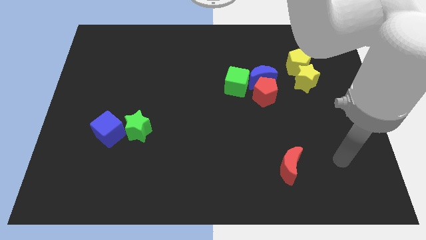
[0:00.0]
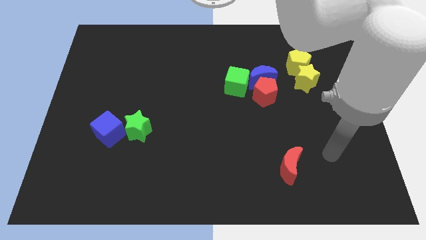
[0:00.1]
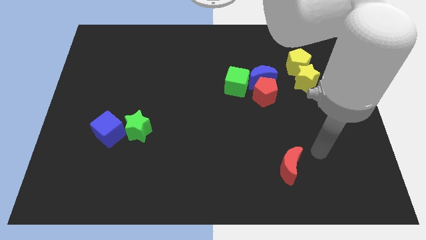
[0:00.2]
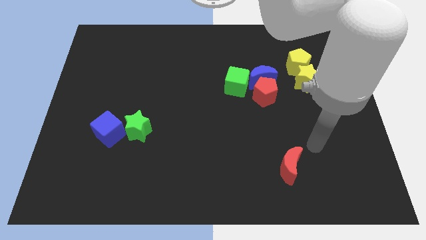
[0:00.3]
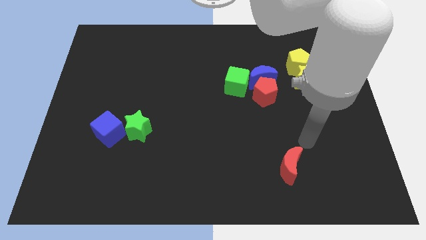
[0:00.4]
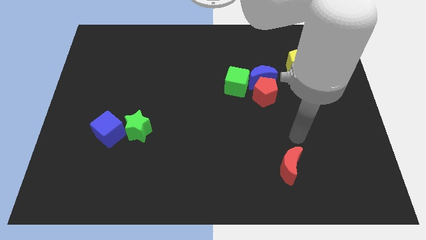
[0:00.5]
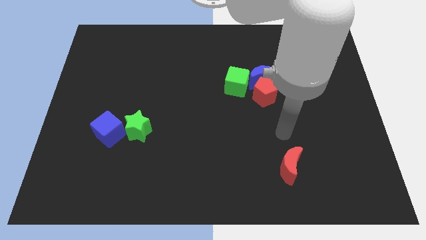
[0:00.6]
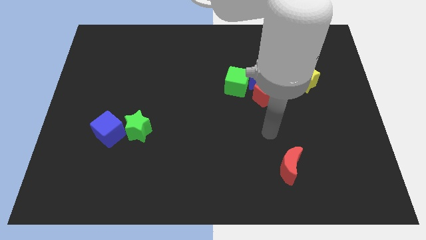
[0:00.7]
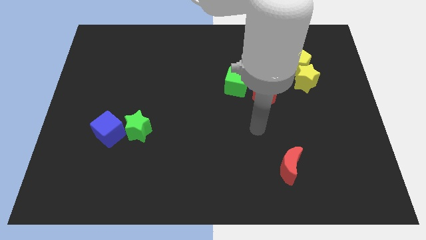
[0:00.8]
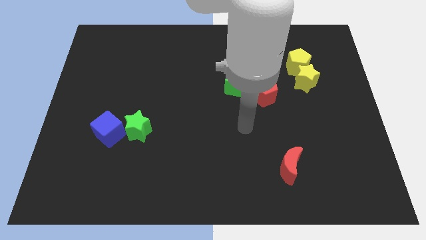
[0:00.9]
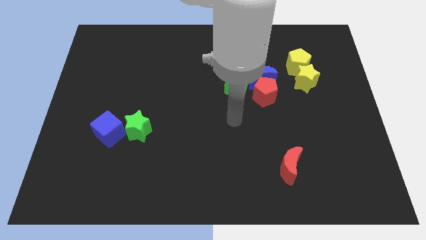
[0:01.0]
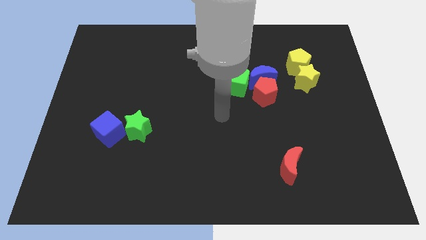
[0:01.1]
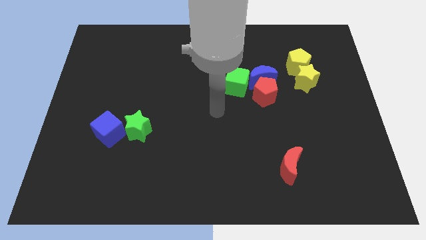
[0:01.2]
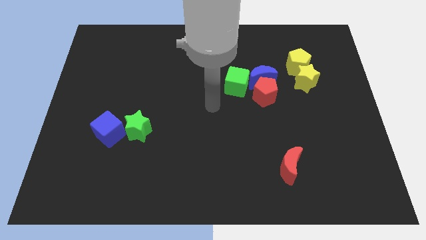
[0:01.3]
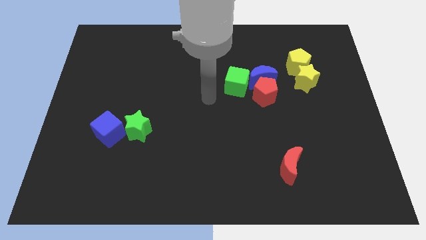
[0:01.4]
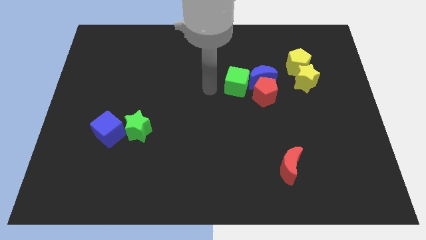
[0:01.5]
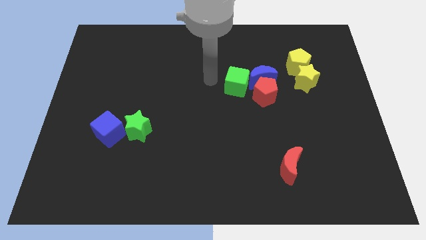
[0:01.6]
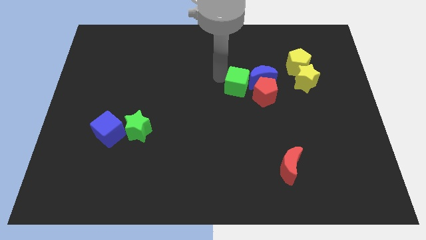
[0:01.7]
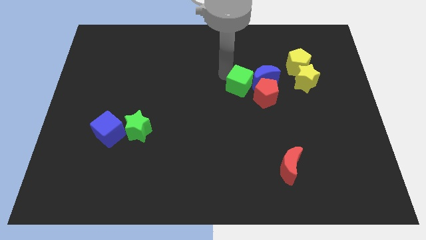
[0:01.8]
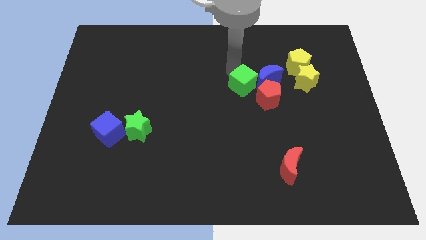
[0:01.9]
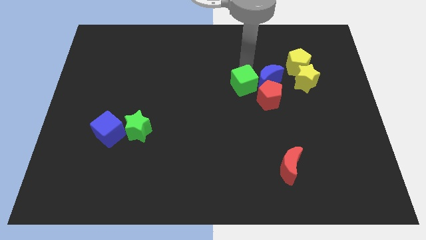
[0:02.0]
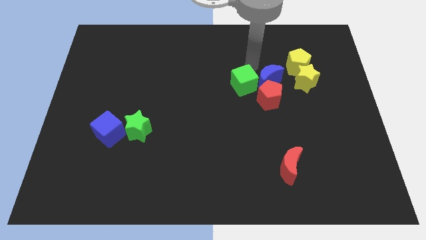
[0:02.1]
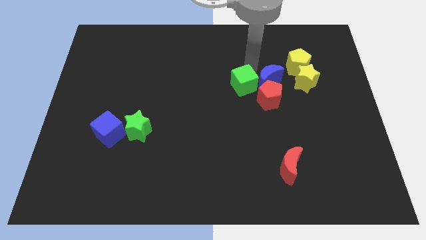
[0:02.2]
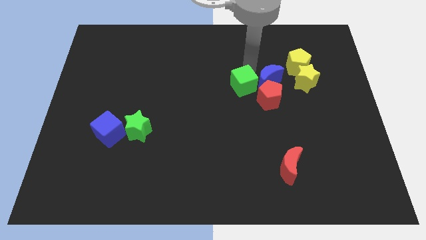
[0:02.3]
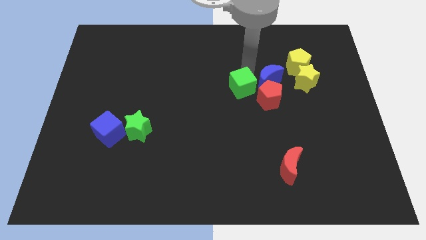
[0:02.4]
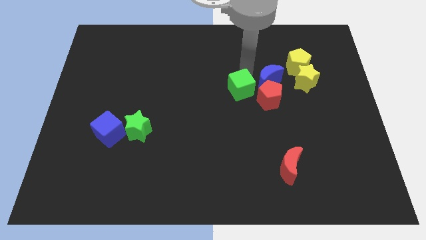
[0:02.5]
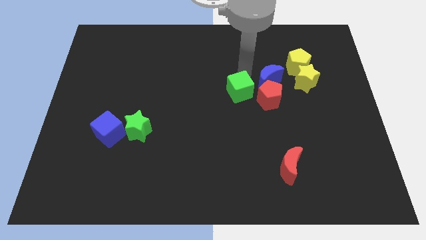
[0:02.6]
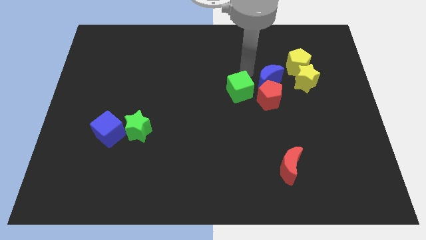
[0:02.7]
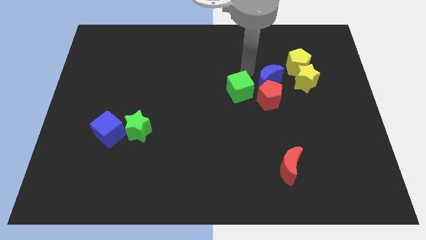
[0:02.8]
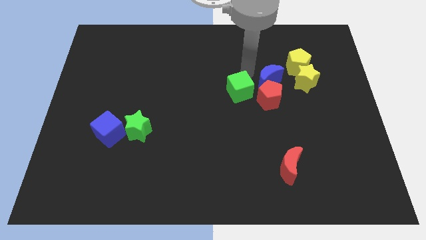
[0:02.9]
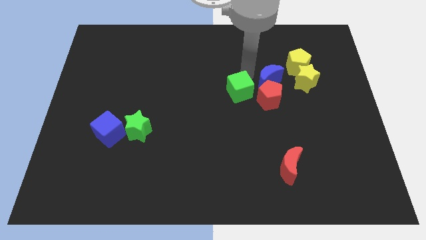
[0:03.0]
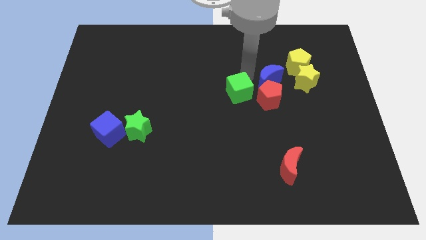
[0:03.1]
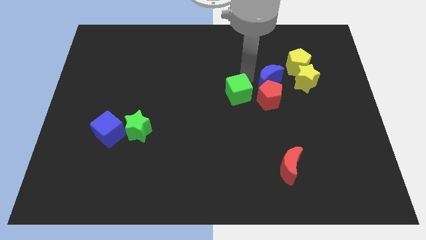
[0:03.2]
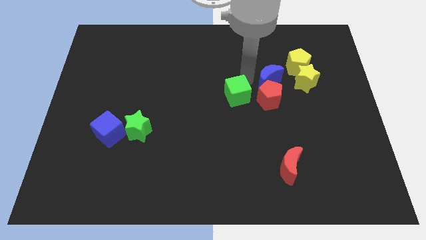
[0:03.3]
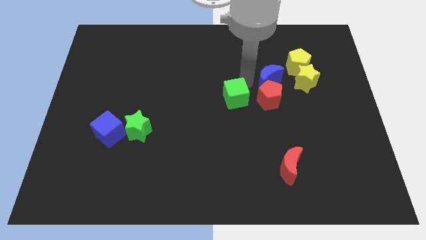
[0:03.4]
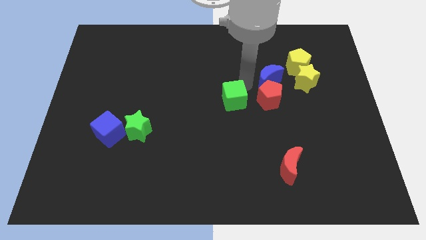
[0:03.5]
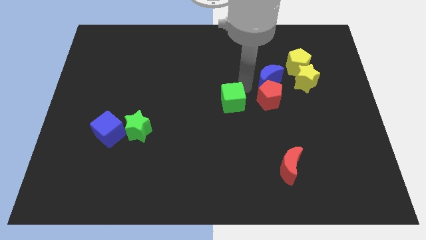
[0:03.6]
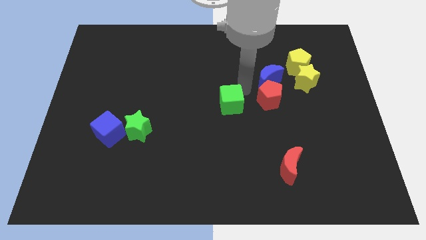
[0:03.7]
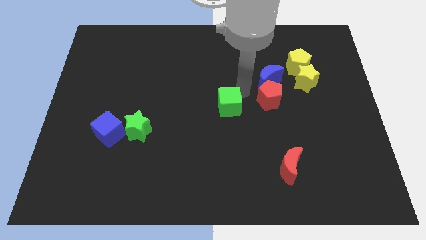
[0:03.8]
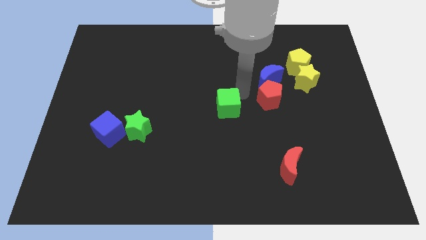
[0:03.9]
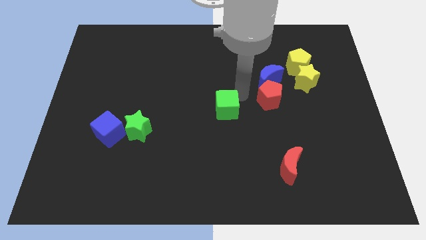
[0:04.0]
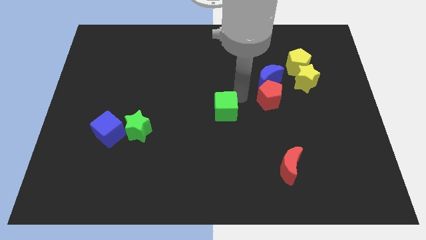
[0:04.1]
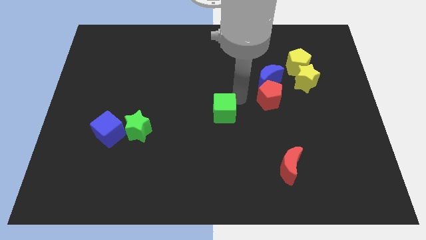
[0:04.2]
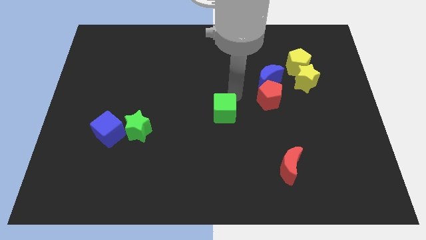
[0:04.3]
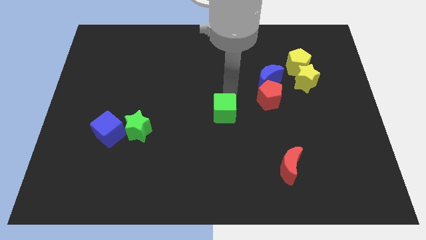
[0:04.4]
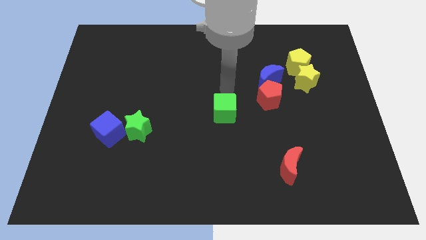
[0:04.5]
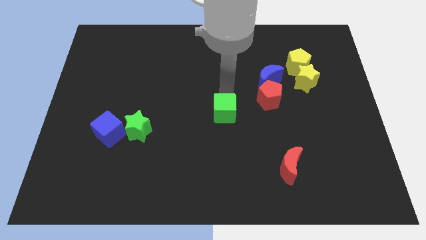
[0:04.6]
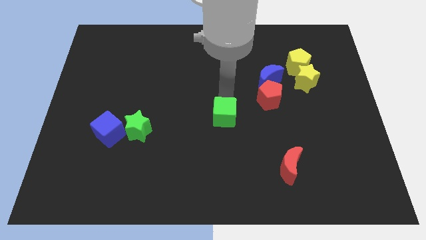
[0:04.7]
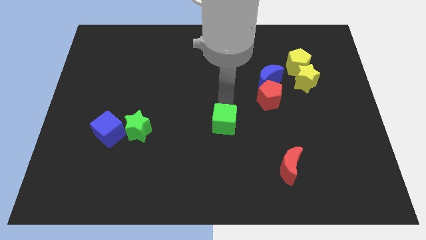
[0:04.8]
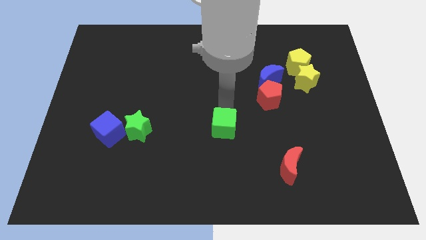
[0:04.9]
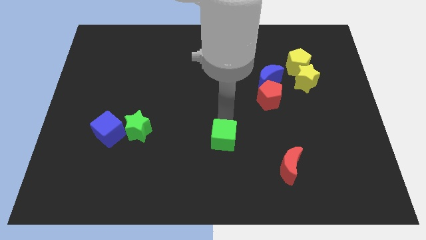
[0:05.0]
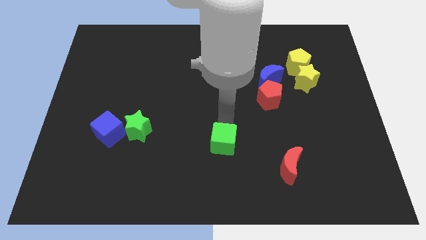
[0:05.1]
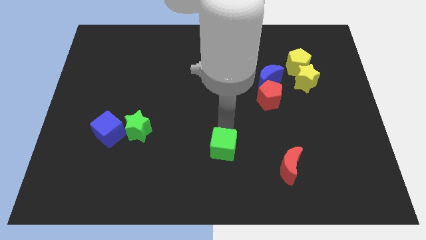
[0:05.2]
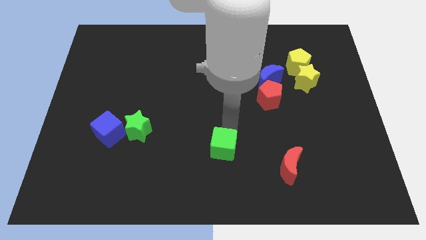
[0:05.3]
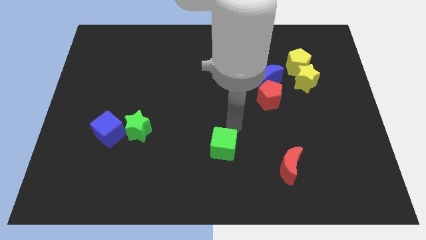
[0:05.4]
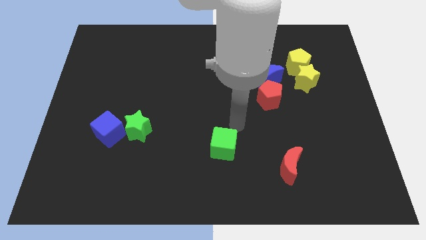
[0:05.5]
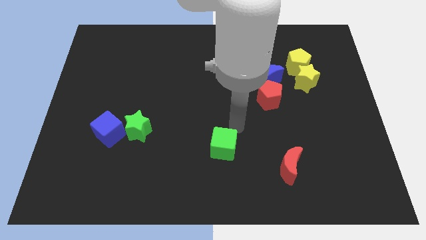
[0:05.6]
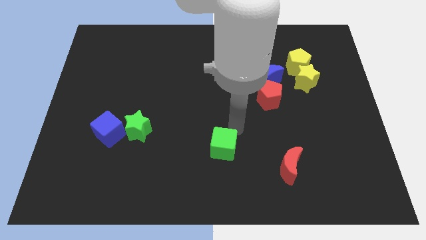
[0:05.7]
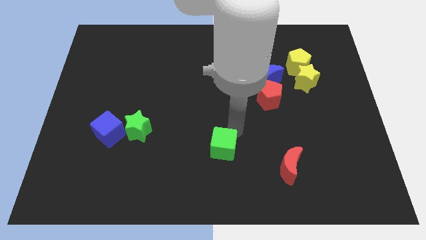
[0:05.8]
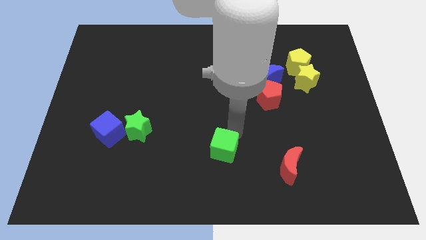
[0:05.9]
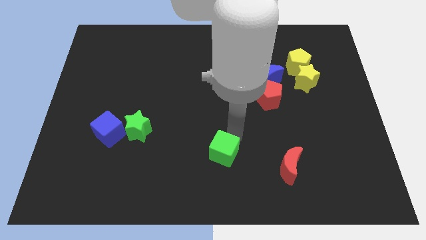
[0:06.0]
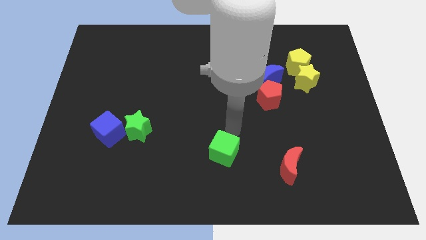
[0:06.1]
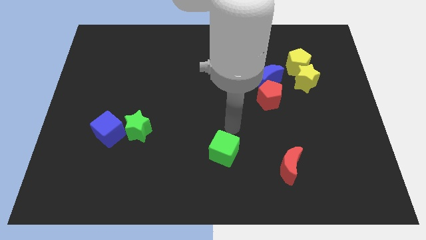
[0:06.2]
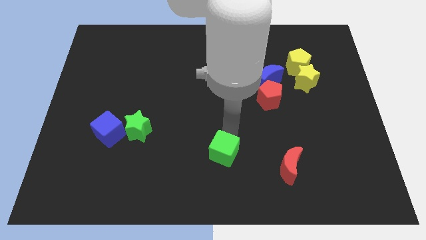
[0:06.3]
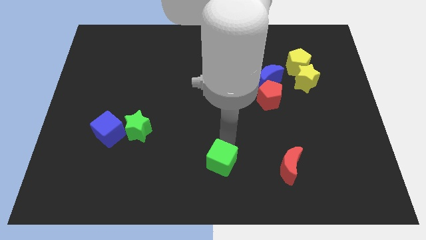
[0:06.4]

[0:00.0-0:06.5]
move the green cube to the bottom side
